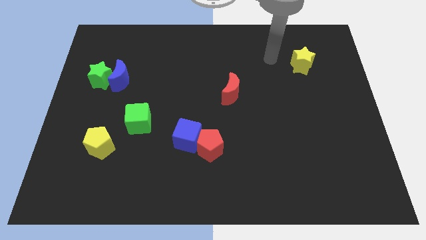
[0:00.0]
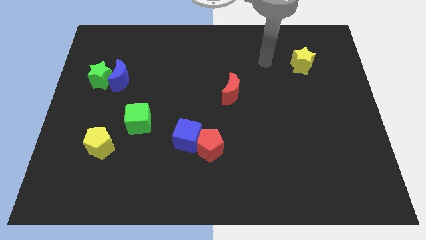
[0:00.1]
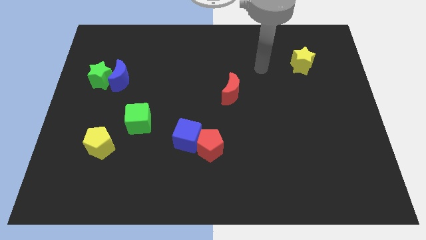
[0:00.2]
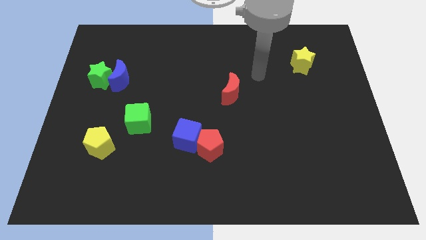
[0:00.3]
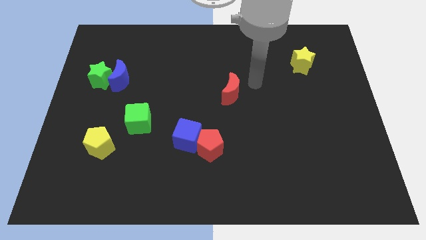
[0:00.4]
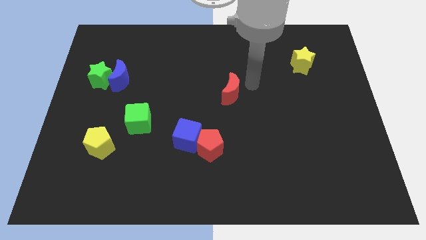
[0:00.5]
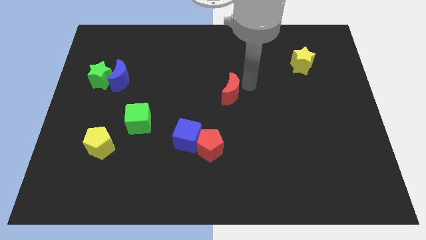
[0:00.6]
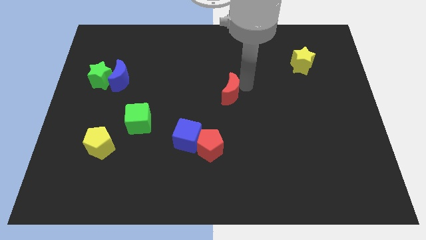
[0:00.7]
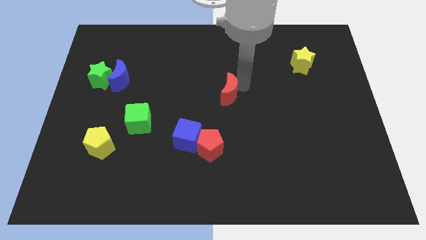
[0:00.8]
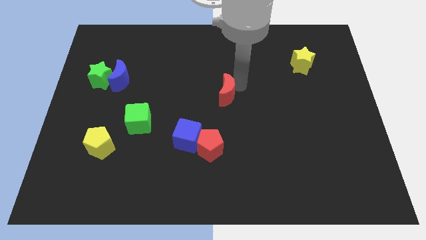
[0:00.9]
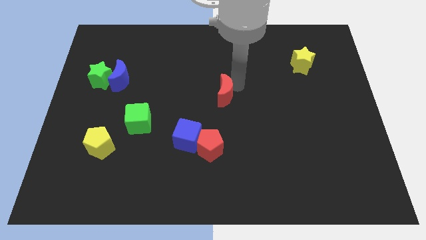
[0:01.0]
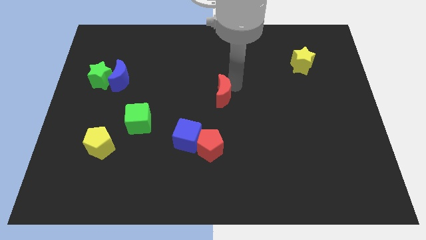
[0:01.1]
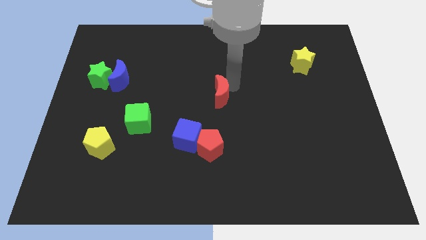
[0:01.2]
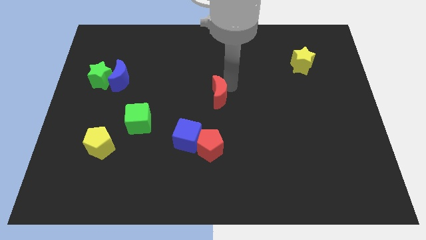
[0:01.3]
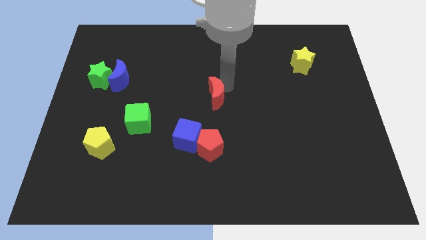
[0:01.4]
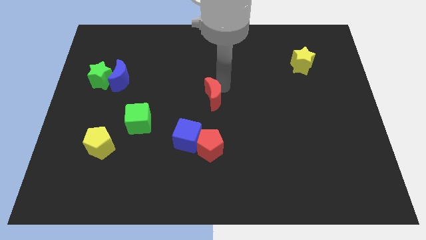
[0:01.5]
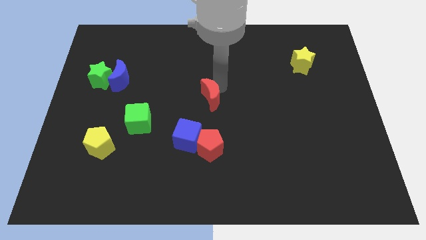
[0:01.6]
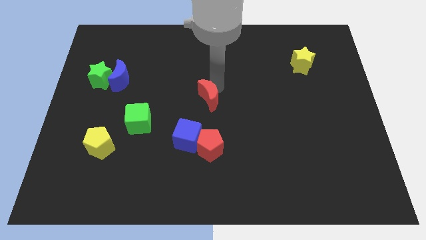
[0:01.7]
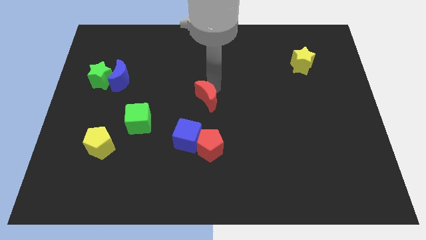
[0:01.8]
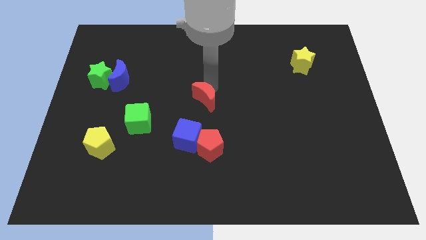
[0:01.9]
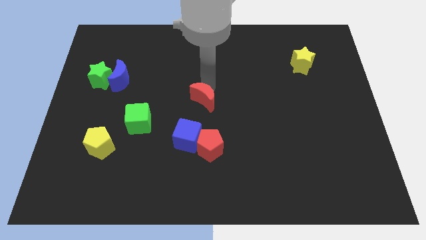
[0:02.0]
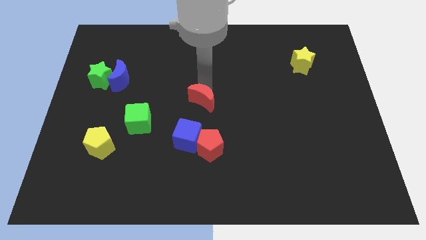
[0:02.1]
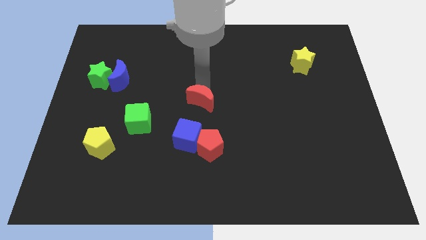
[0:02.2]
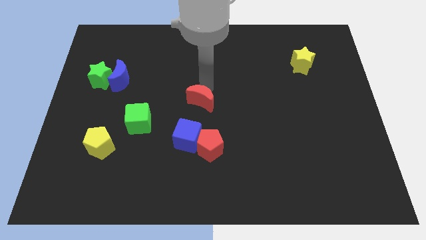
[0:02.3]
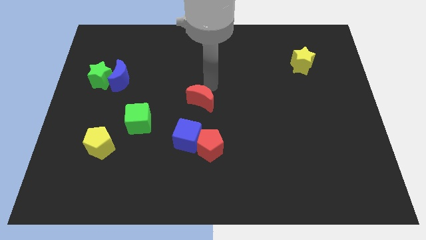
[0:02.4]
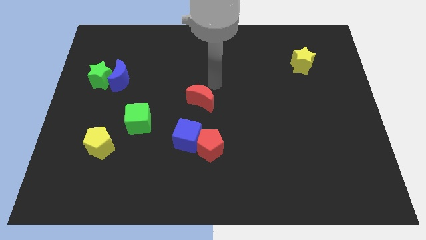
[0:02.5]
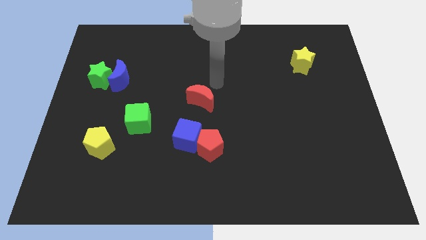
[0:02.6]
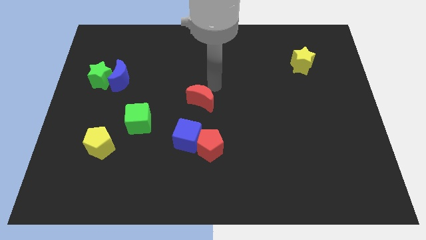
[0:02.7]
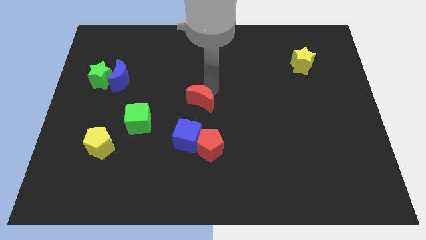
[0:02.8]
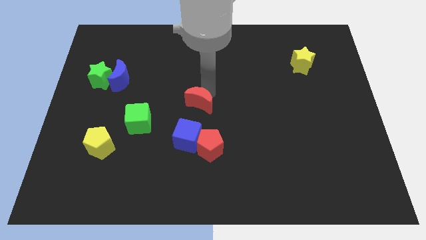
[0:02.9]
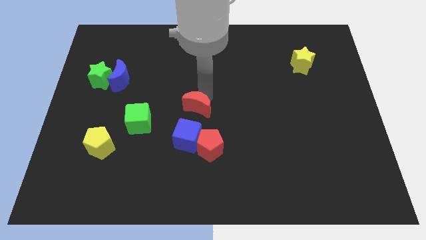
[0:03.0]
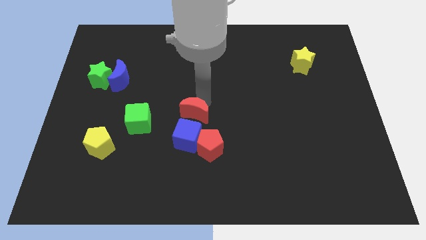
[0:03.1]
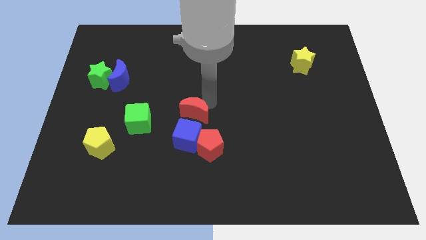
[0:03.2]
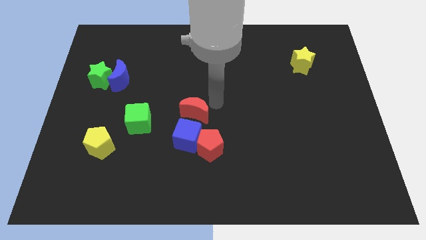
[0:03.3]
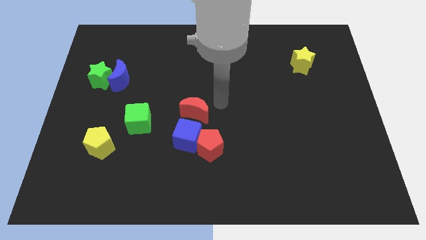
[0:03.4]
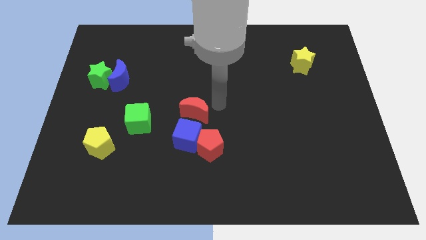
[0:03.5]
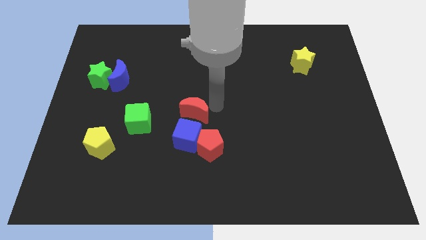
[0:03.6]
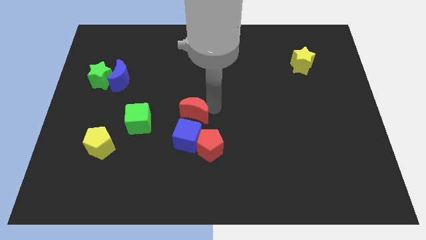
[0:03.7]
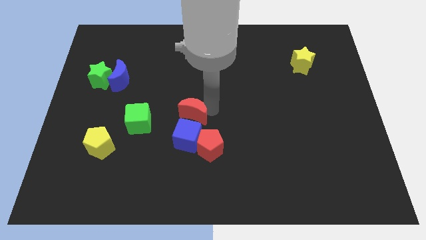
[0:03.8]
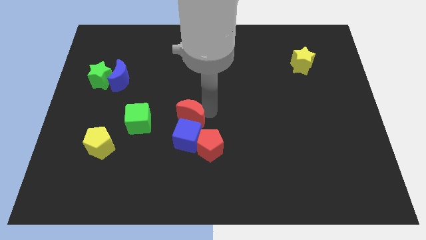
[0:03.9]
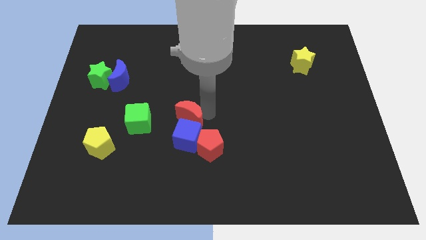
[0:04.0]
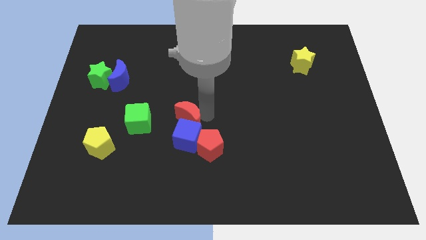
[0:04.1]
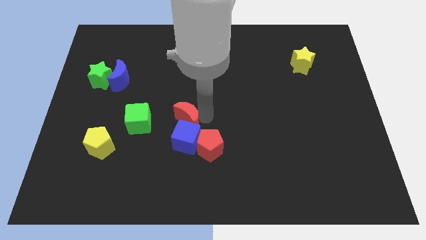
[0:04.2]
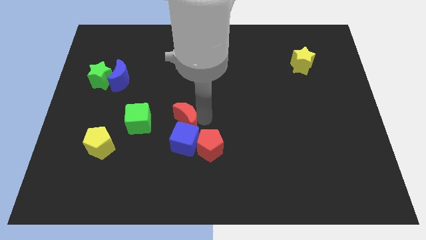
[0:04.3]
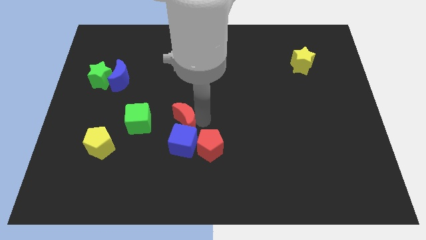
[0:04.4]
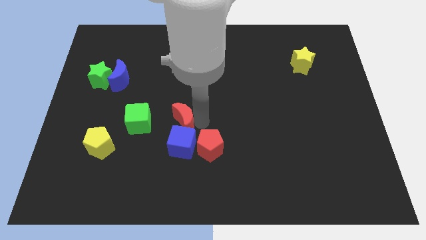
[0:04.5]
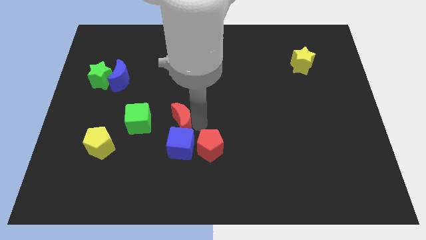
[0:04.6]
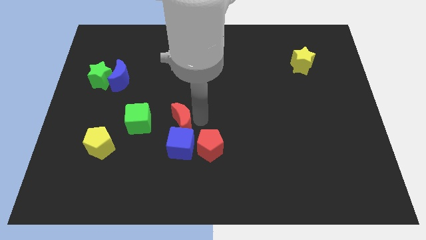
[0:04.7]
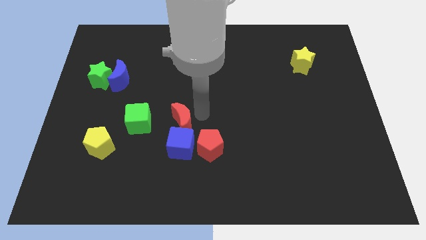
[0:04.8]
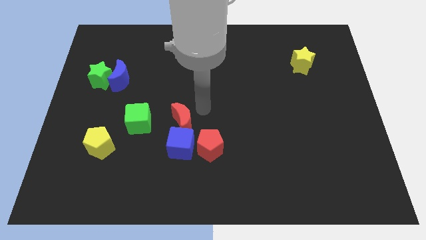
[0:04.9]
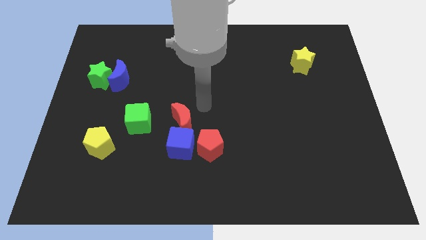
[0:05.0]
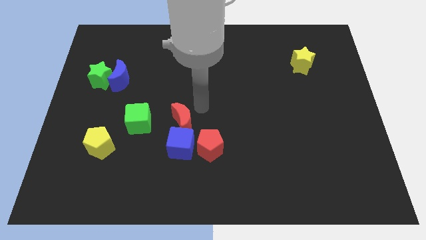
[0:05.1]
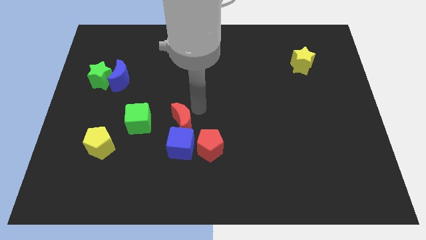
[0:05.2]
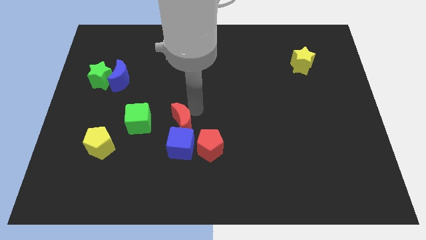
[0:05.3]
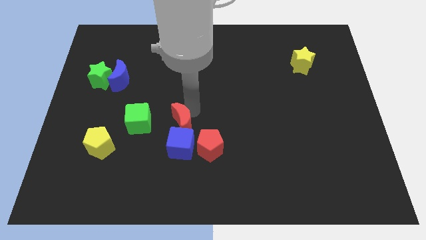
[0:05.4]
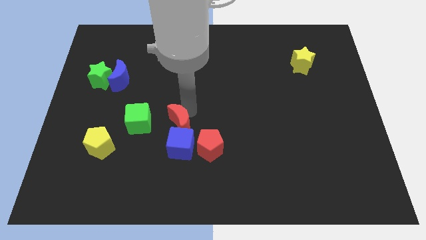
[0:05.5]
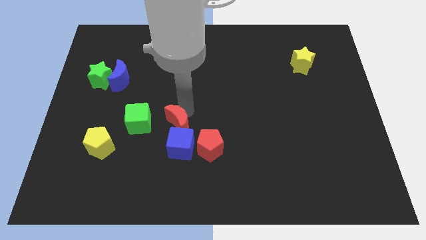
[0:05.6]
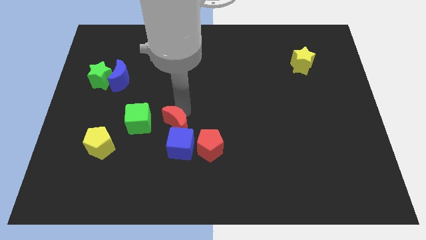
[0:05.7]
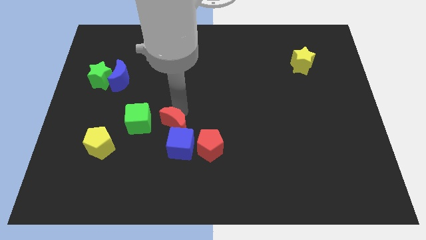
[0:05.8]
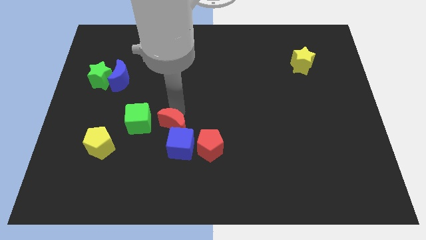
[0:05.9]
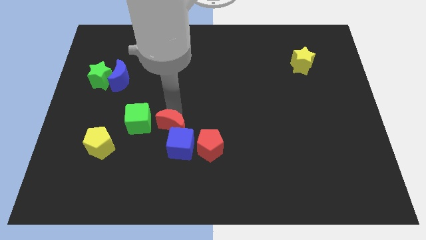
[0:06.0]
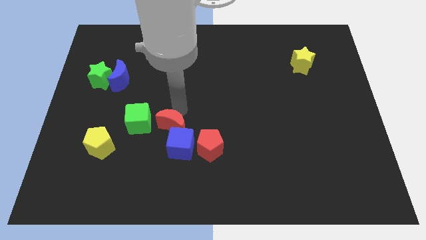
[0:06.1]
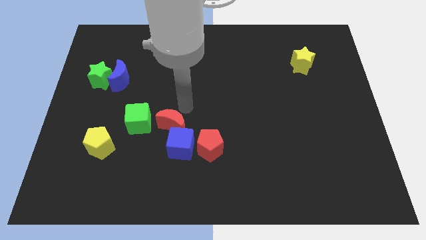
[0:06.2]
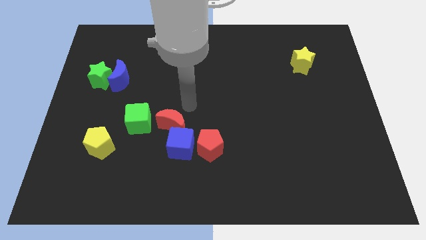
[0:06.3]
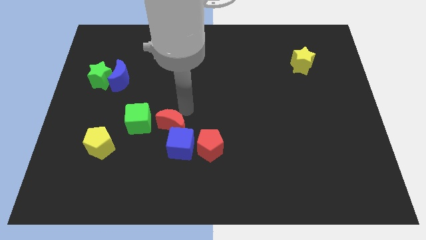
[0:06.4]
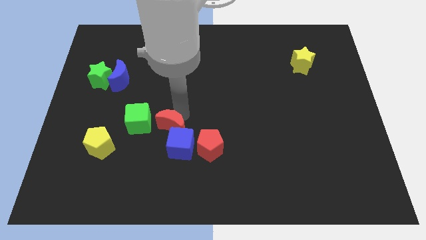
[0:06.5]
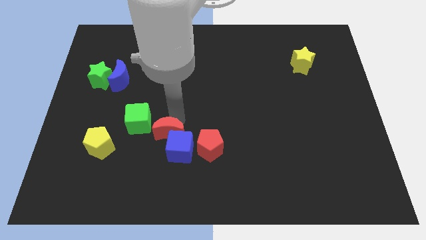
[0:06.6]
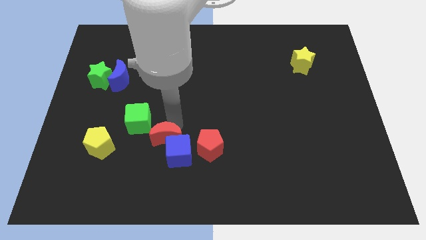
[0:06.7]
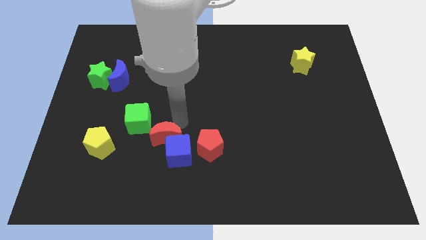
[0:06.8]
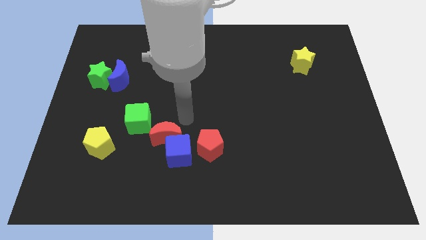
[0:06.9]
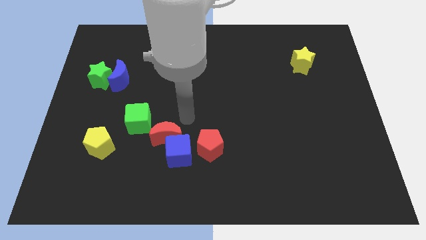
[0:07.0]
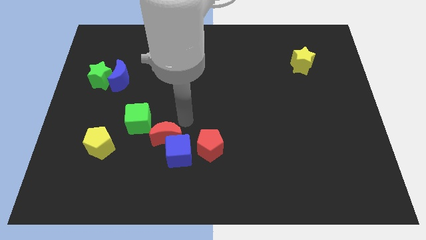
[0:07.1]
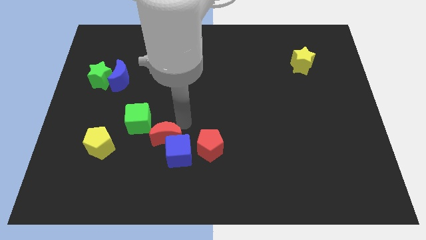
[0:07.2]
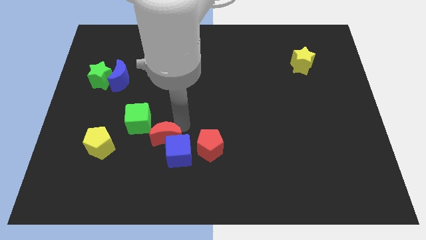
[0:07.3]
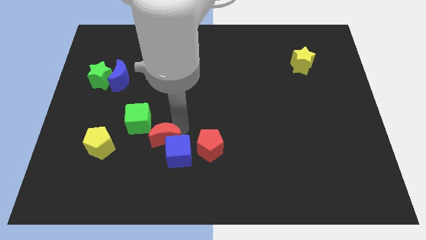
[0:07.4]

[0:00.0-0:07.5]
move the red moon down and left diagonally
